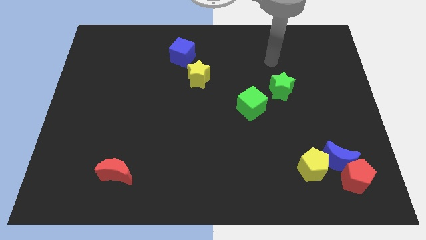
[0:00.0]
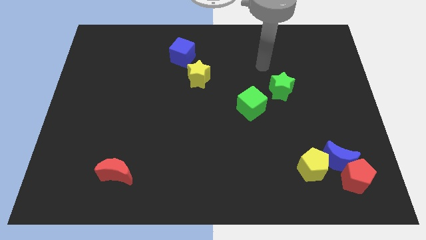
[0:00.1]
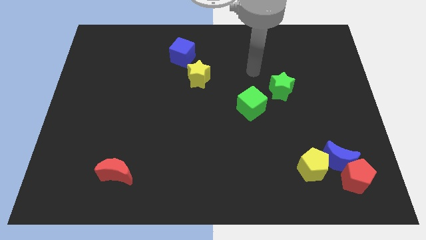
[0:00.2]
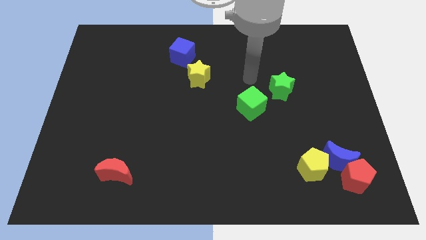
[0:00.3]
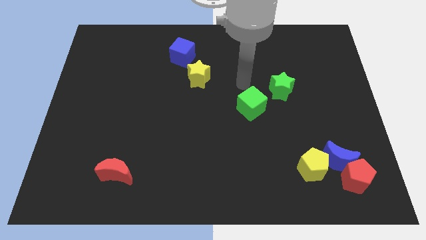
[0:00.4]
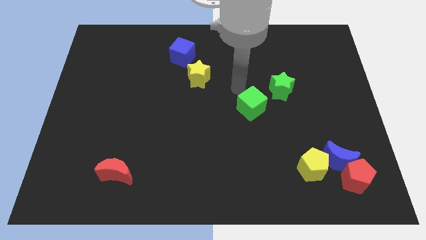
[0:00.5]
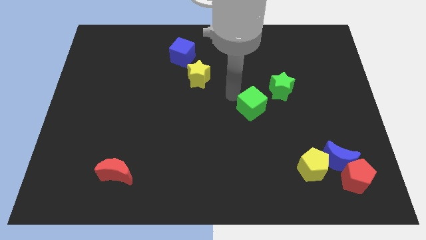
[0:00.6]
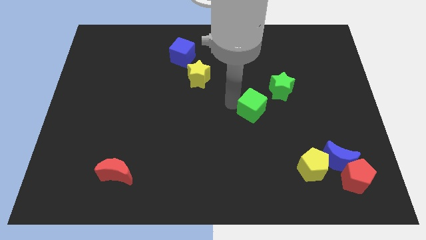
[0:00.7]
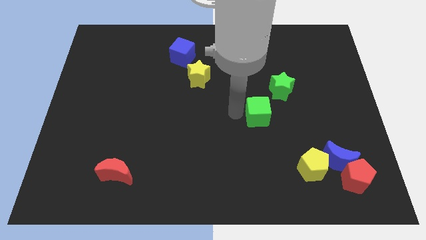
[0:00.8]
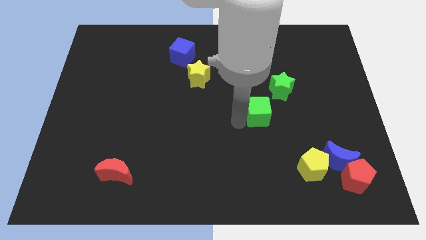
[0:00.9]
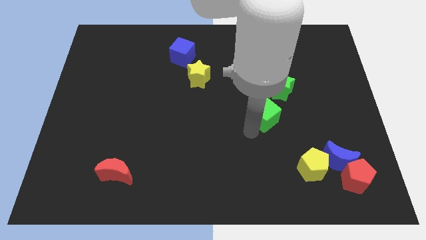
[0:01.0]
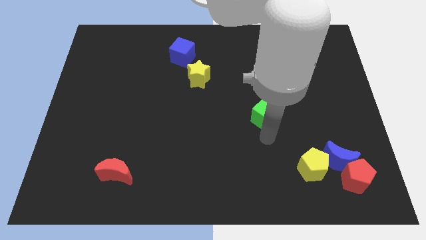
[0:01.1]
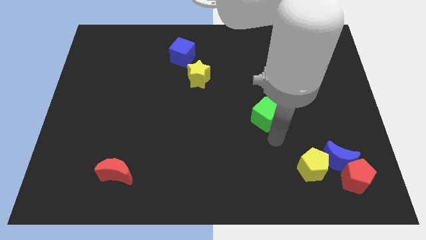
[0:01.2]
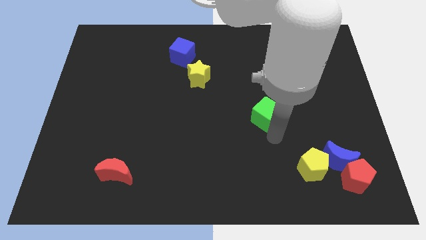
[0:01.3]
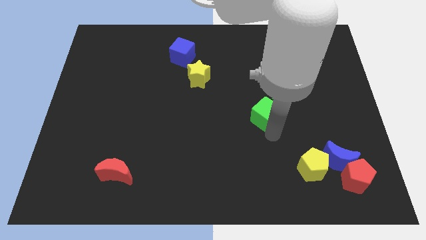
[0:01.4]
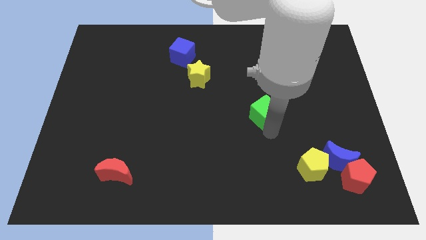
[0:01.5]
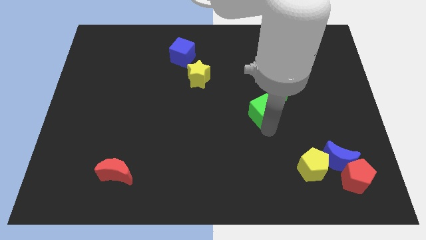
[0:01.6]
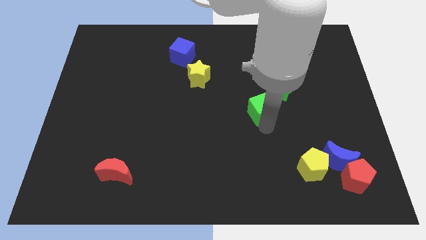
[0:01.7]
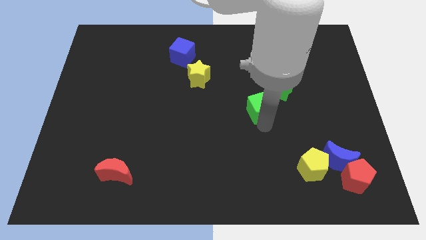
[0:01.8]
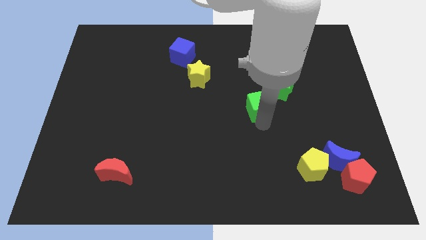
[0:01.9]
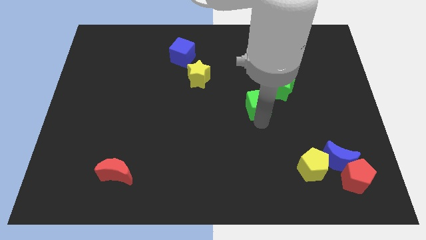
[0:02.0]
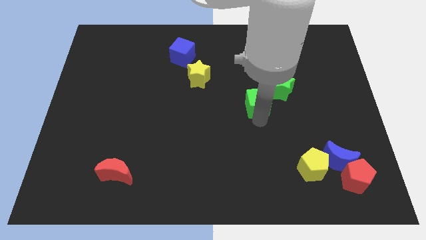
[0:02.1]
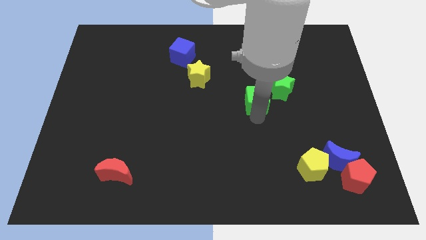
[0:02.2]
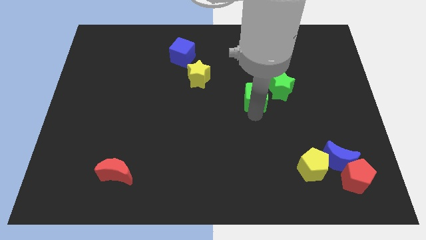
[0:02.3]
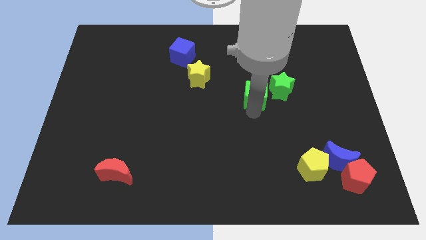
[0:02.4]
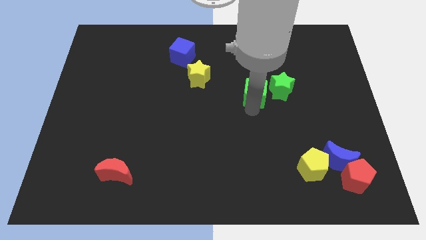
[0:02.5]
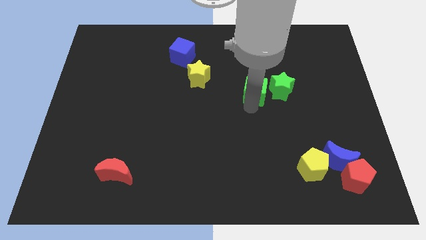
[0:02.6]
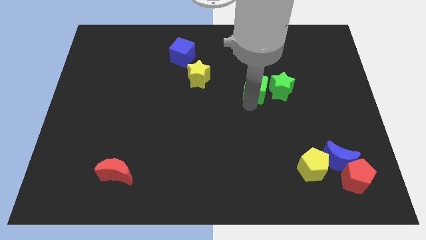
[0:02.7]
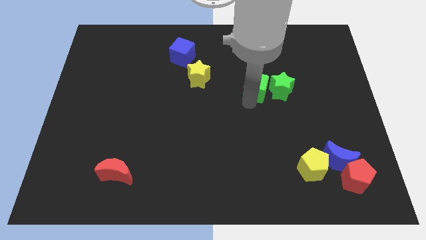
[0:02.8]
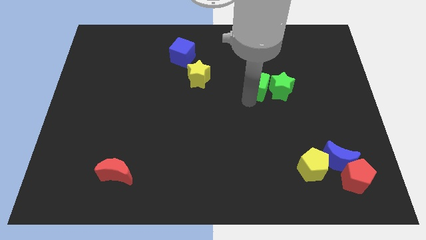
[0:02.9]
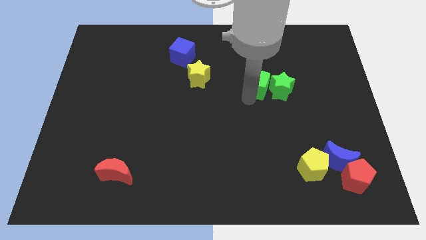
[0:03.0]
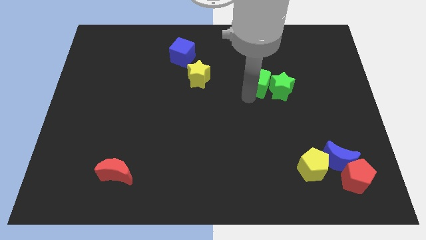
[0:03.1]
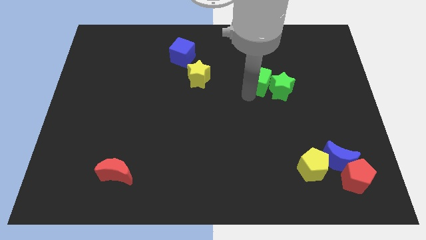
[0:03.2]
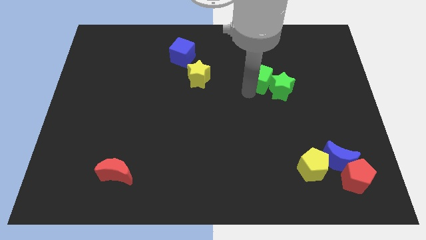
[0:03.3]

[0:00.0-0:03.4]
move the green cube diagonally upwards and to the right slightly

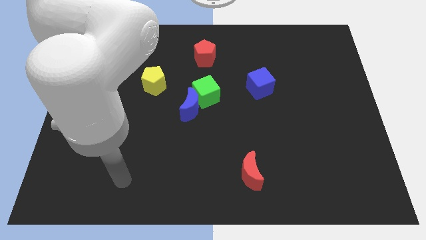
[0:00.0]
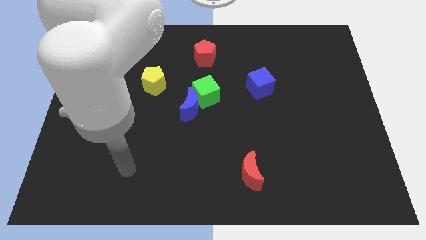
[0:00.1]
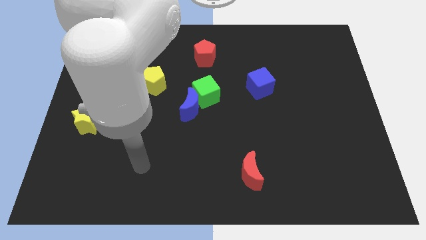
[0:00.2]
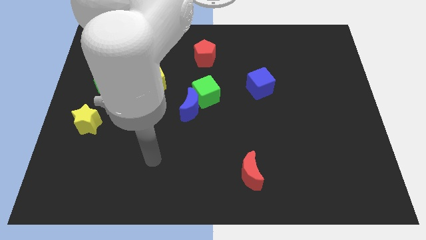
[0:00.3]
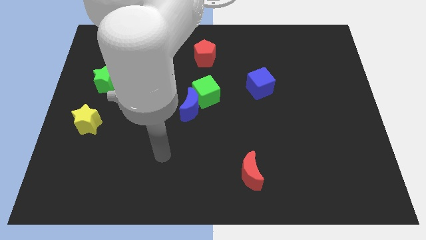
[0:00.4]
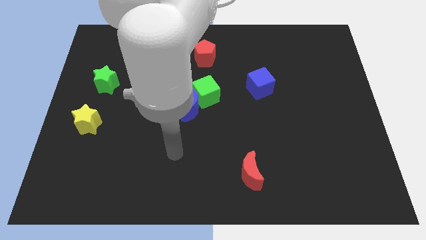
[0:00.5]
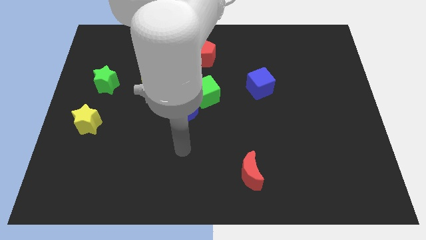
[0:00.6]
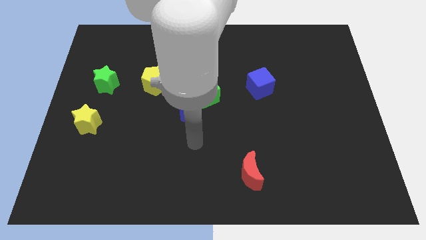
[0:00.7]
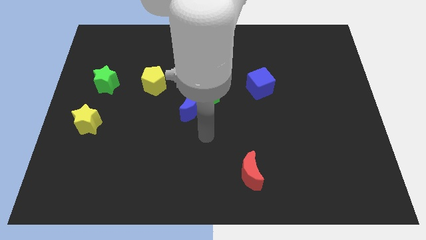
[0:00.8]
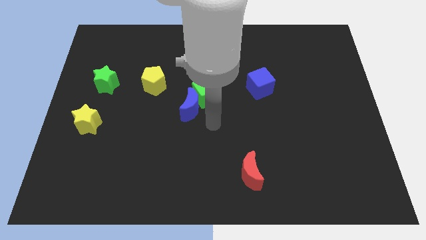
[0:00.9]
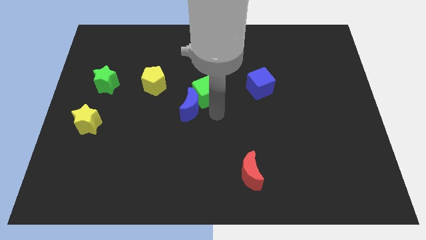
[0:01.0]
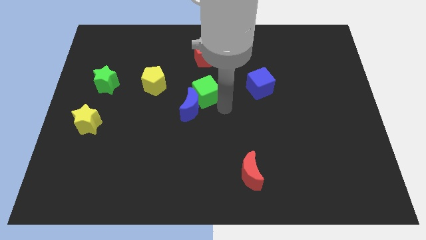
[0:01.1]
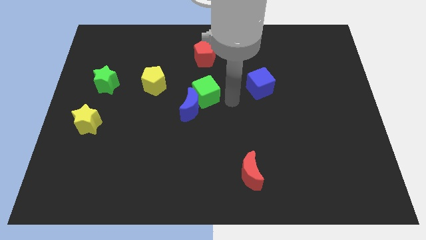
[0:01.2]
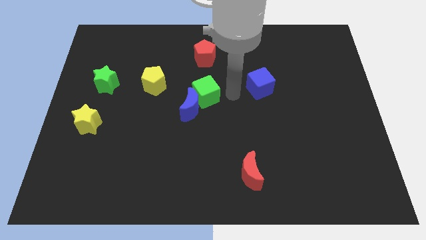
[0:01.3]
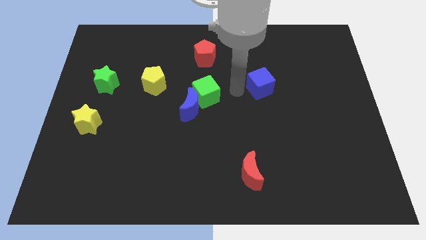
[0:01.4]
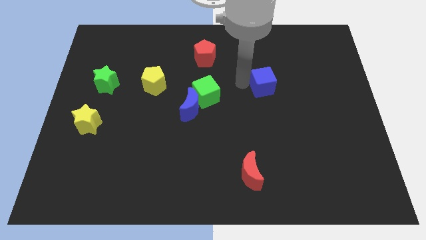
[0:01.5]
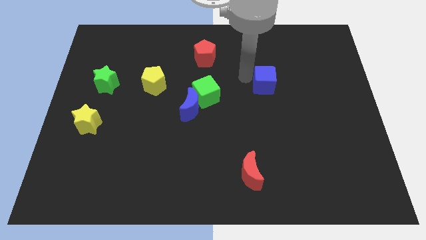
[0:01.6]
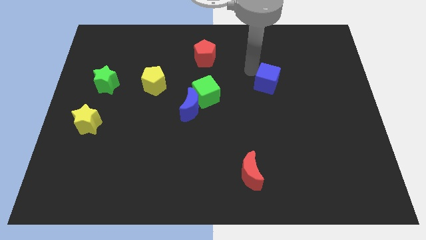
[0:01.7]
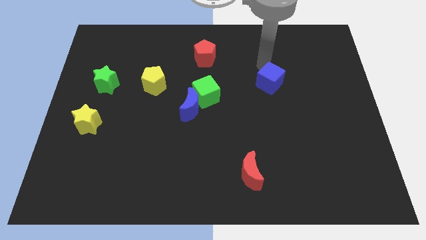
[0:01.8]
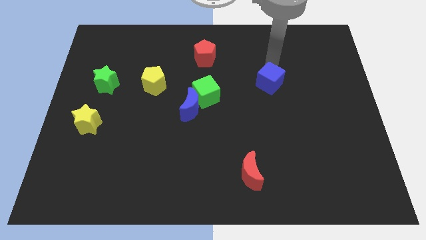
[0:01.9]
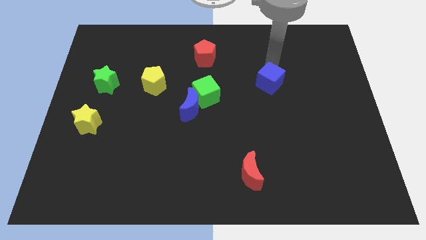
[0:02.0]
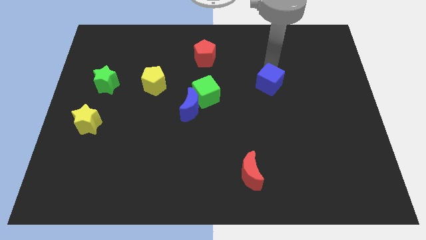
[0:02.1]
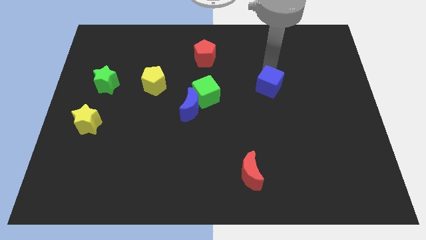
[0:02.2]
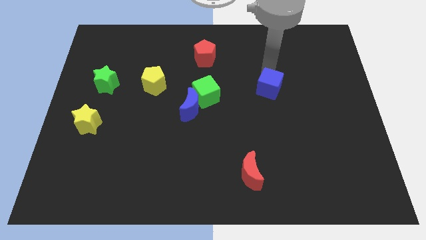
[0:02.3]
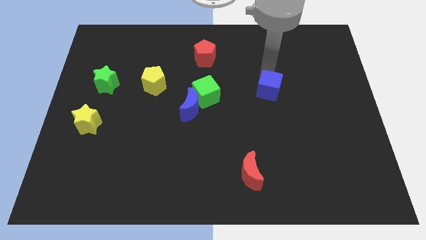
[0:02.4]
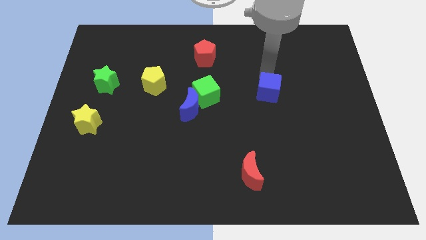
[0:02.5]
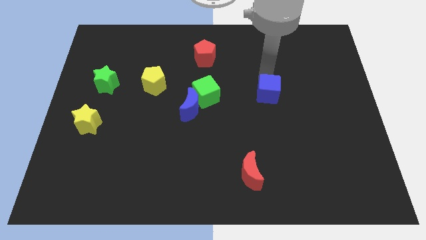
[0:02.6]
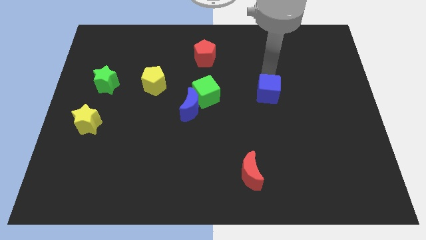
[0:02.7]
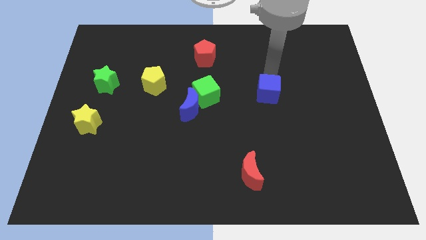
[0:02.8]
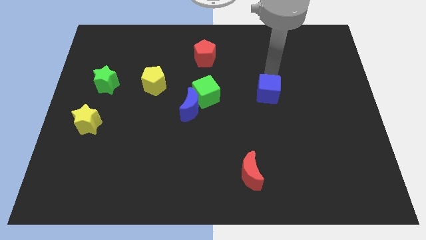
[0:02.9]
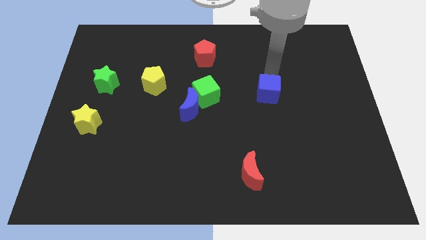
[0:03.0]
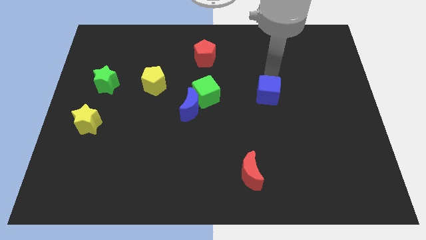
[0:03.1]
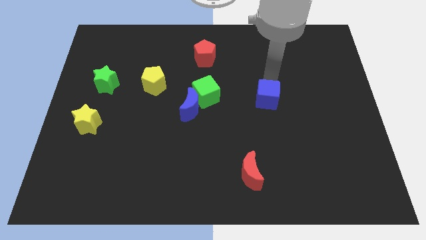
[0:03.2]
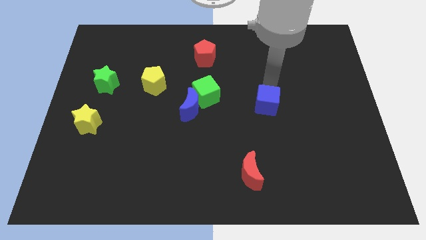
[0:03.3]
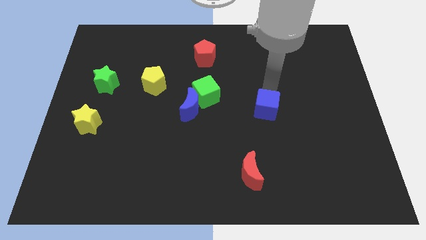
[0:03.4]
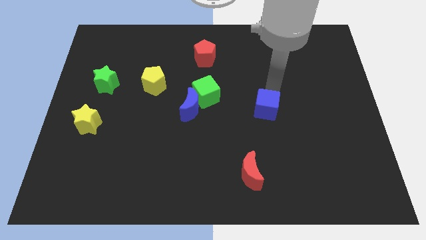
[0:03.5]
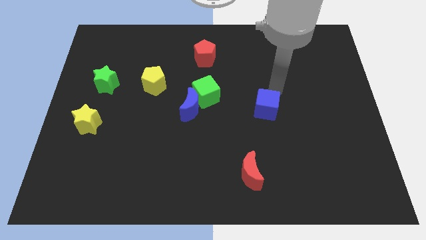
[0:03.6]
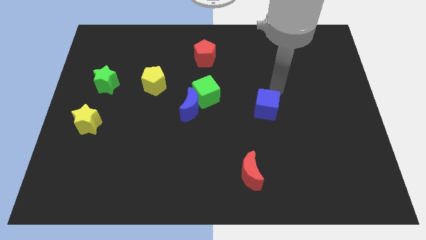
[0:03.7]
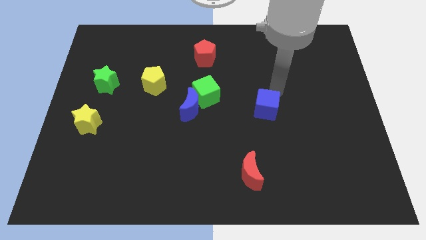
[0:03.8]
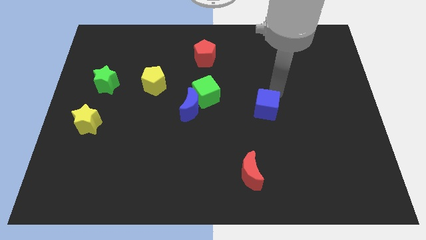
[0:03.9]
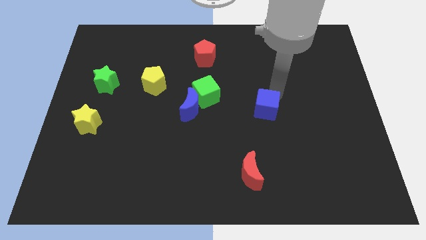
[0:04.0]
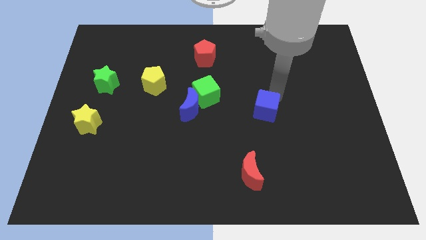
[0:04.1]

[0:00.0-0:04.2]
slide the blue cube down somewhat

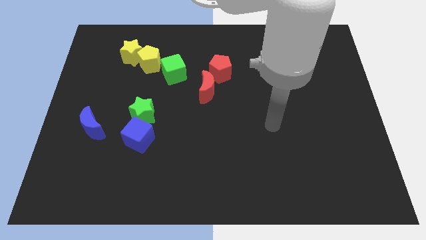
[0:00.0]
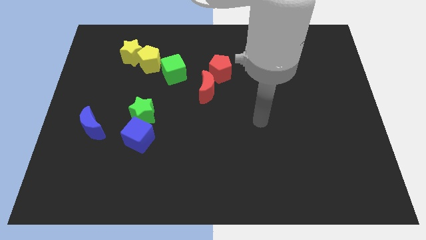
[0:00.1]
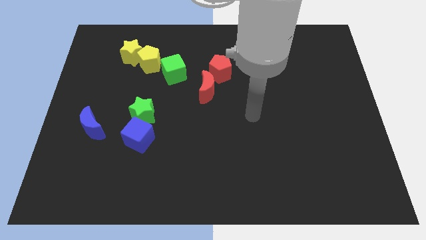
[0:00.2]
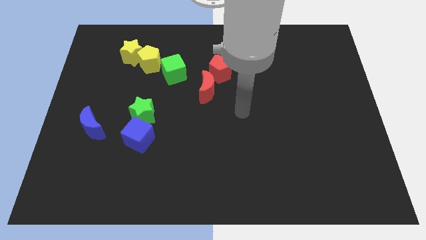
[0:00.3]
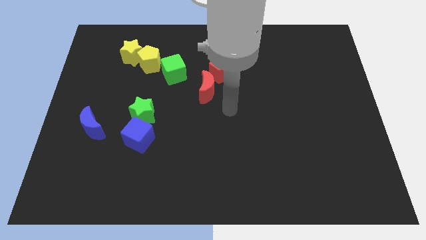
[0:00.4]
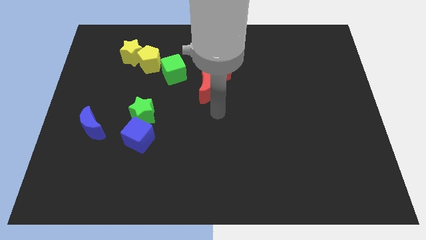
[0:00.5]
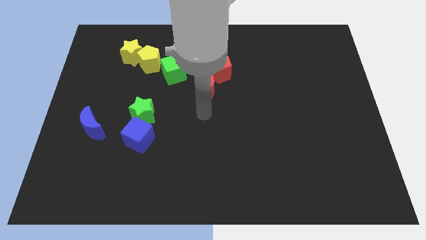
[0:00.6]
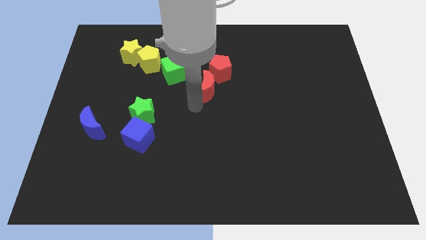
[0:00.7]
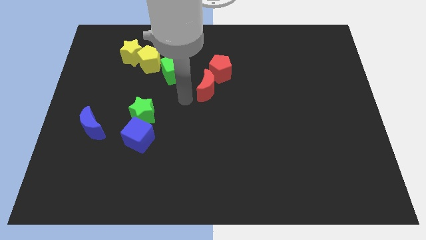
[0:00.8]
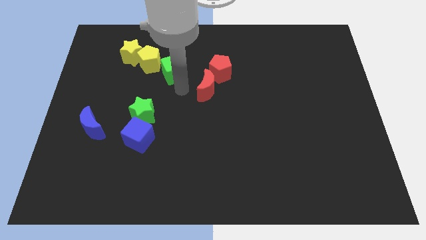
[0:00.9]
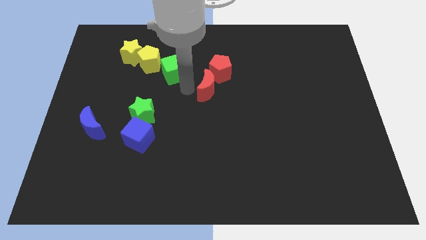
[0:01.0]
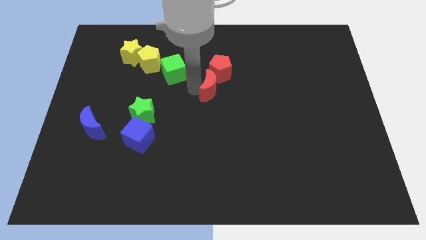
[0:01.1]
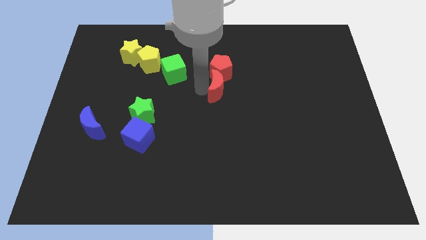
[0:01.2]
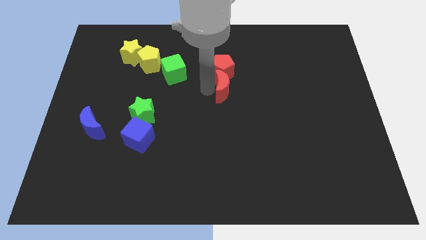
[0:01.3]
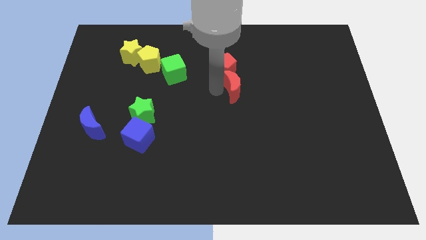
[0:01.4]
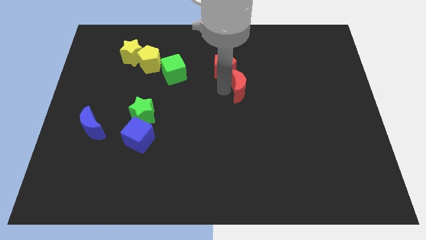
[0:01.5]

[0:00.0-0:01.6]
move the red moon right a little bit
